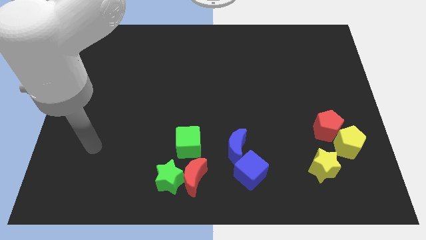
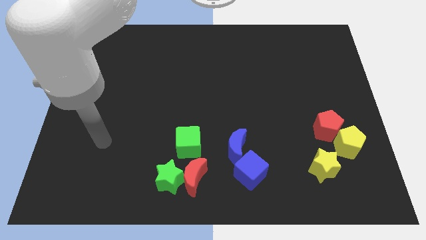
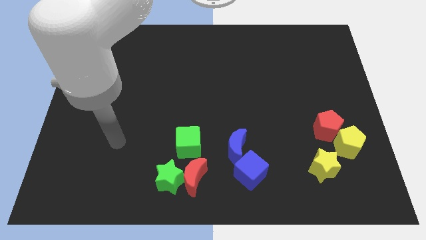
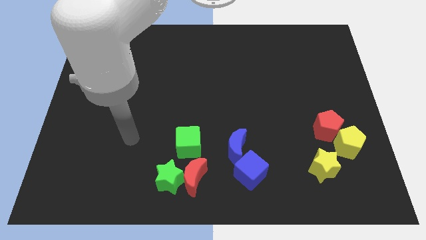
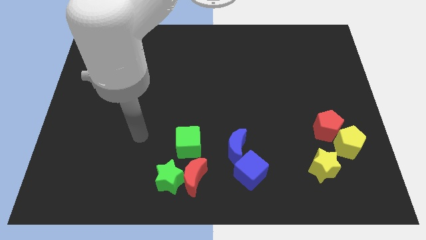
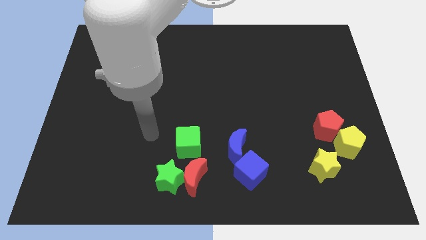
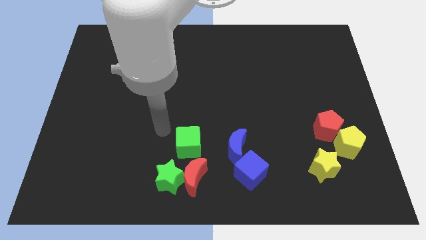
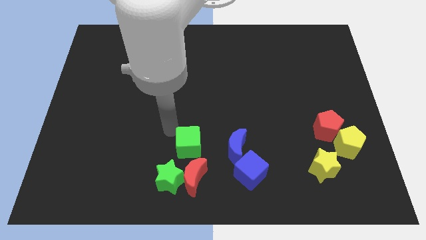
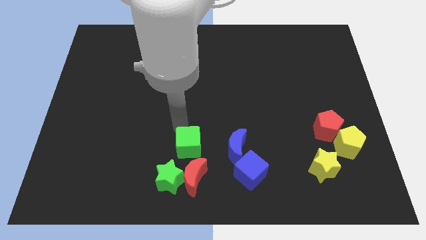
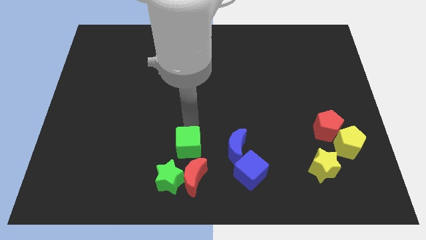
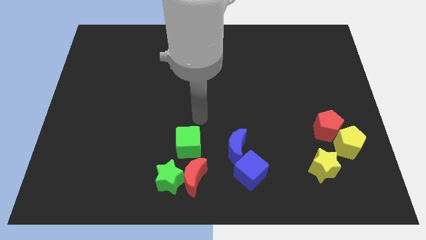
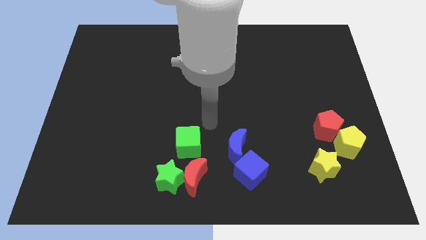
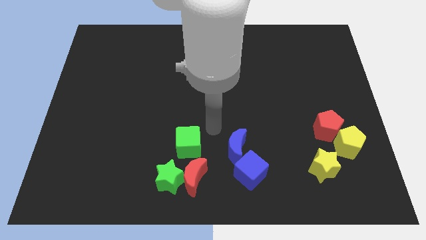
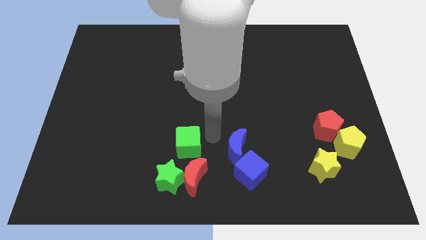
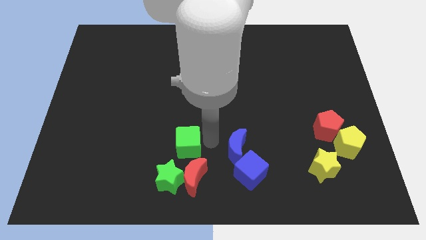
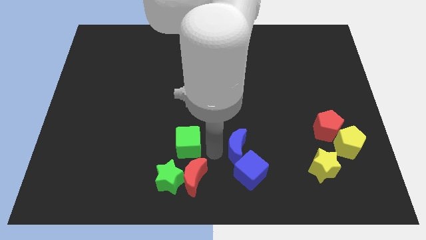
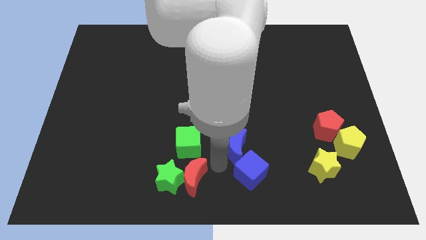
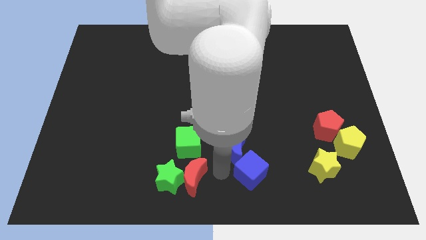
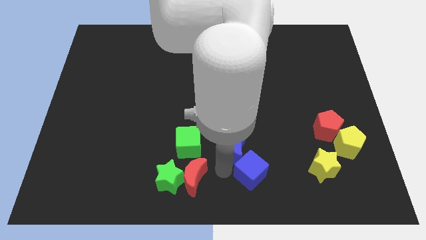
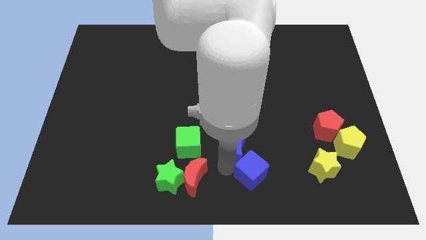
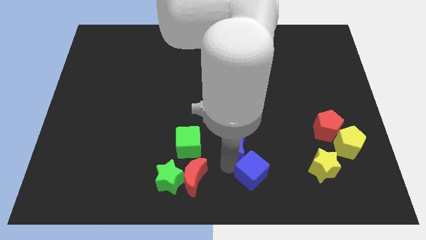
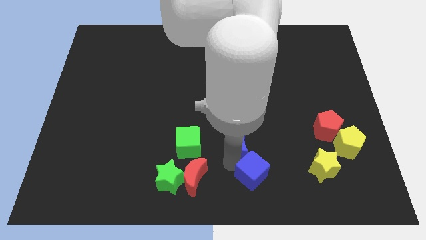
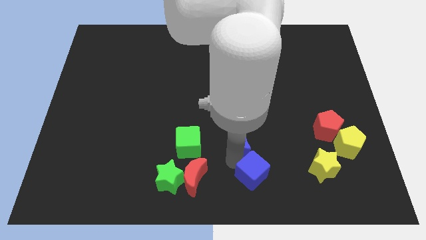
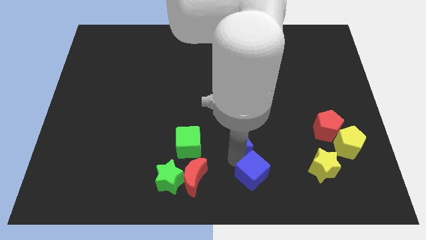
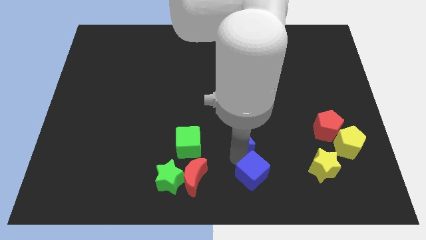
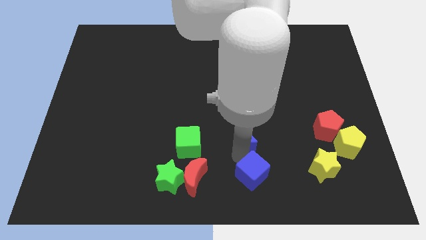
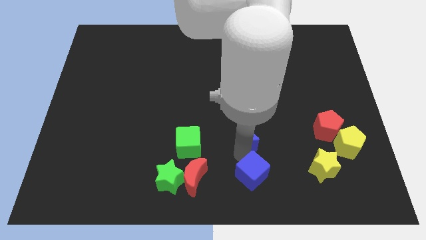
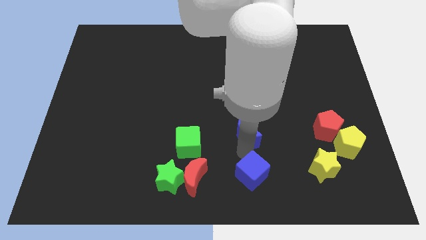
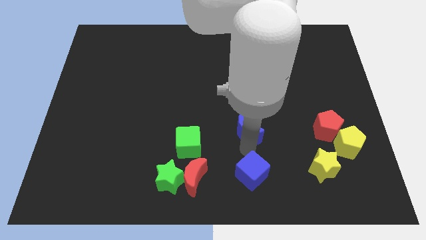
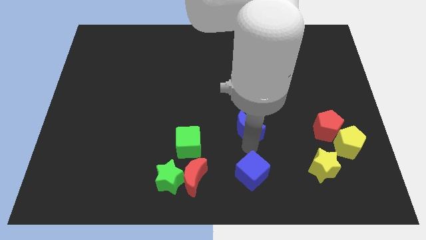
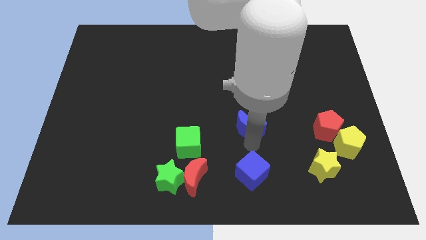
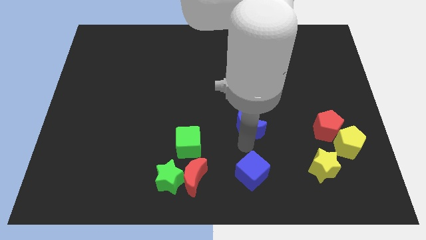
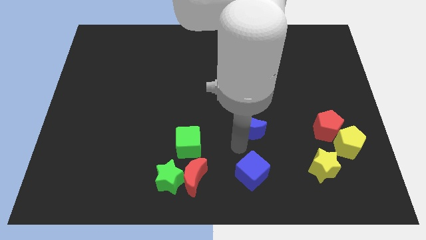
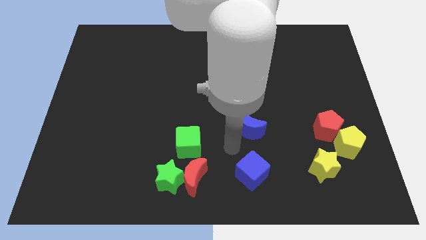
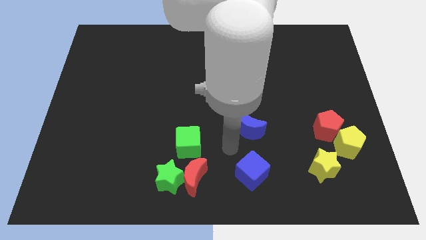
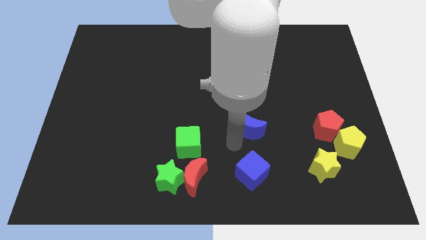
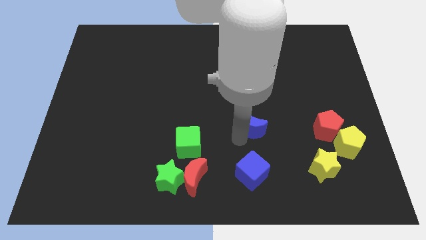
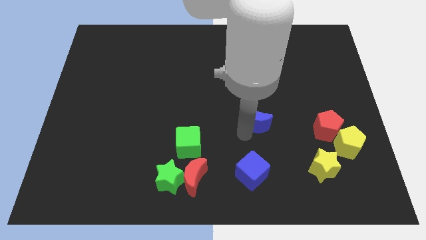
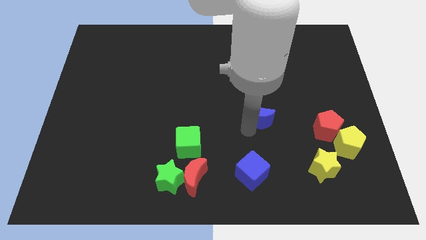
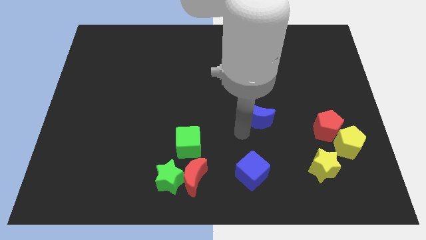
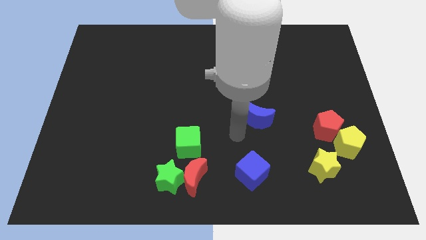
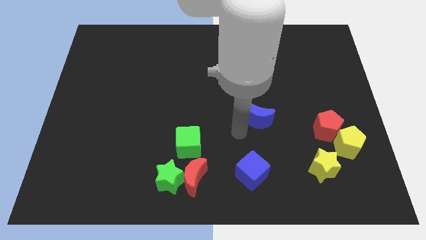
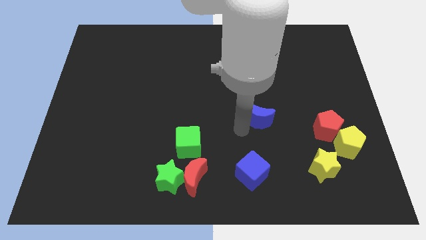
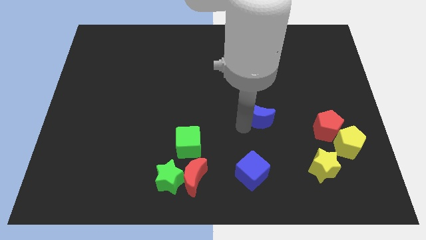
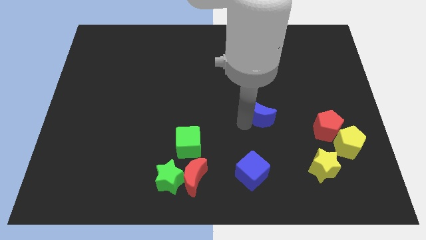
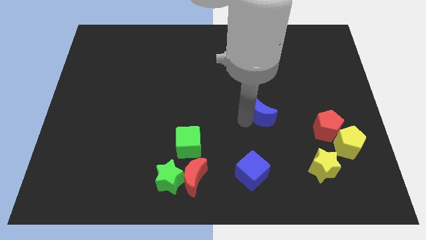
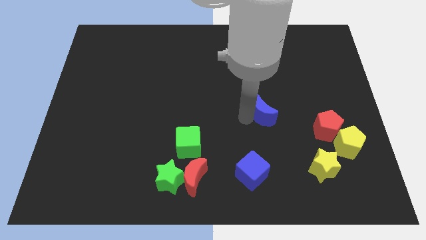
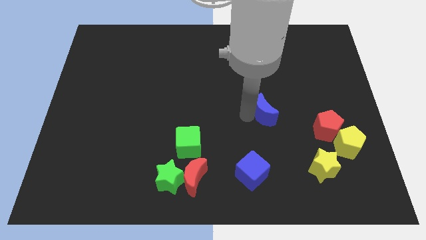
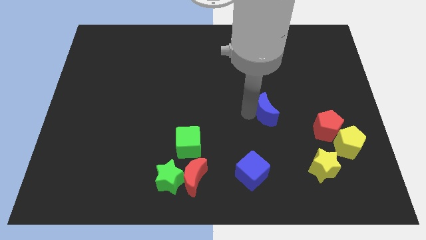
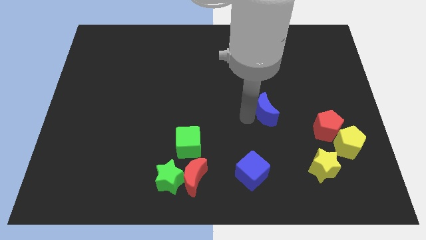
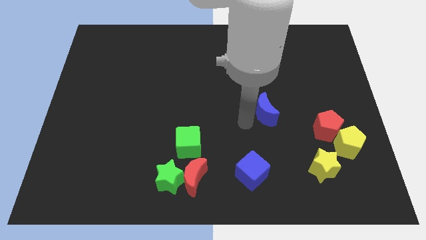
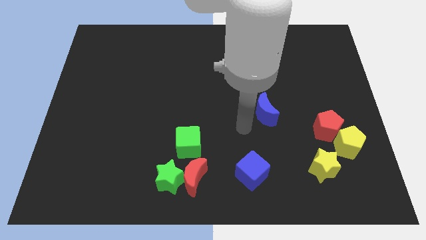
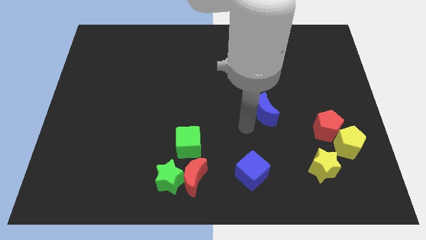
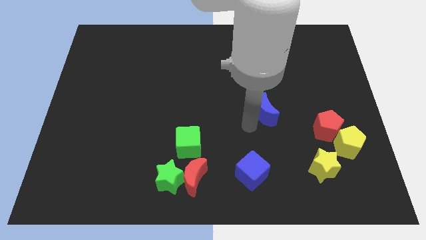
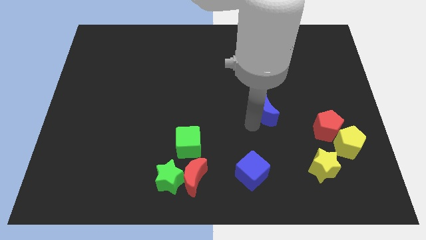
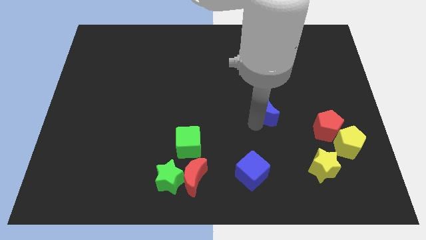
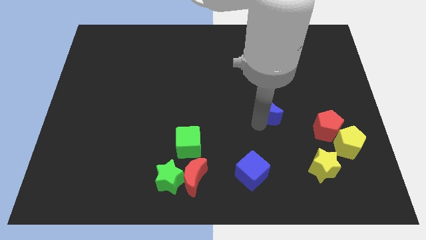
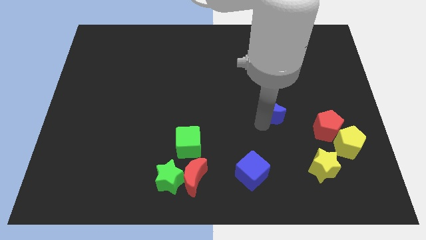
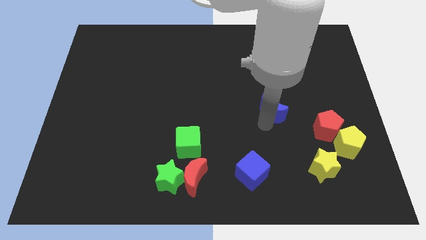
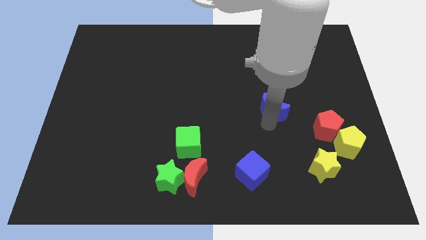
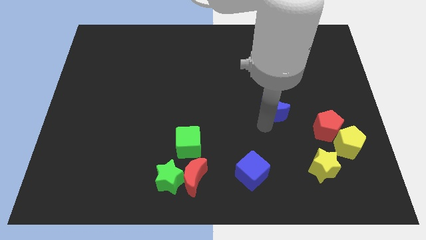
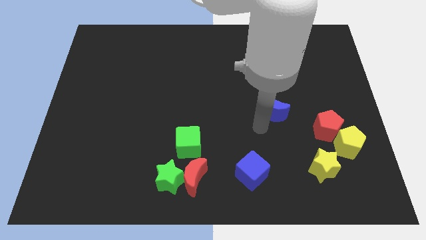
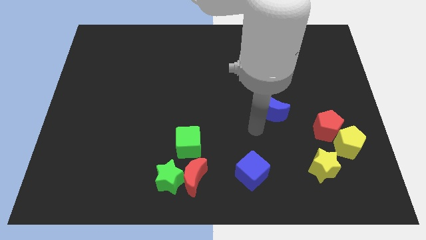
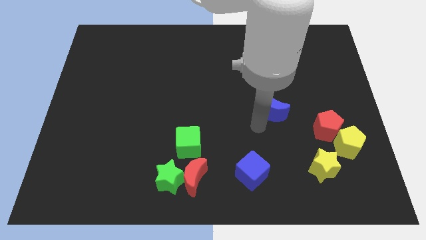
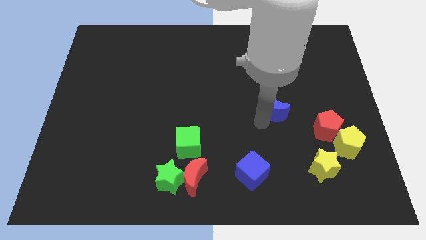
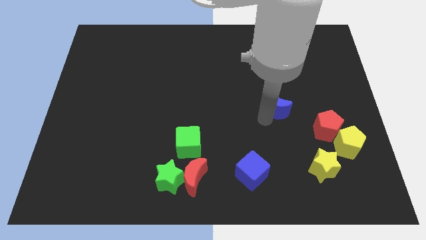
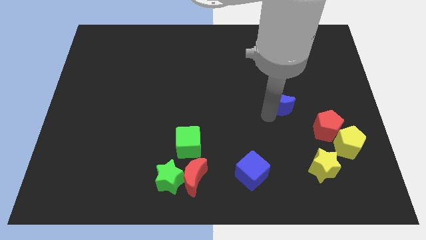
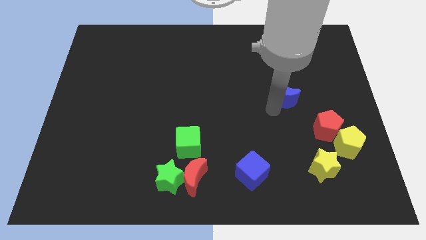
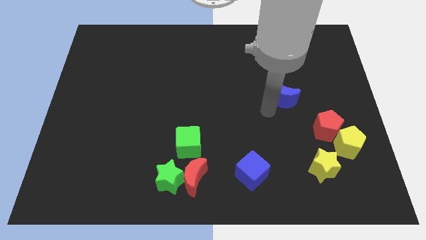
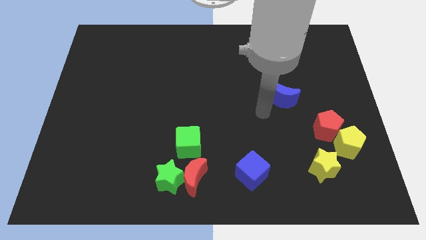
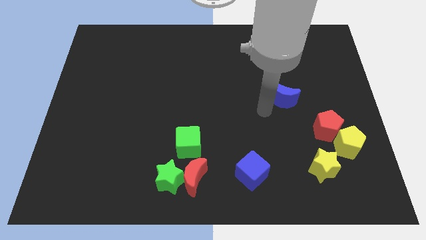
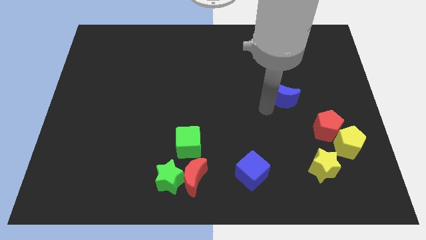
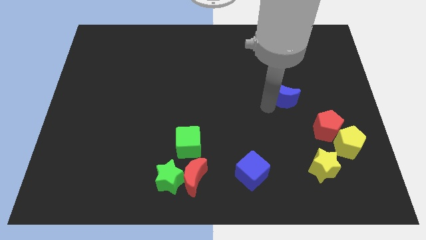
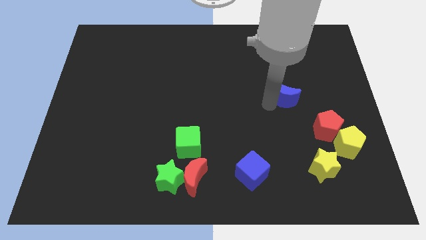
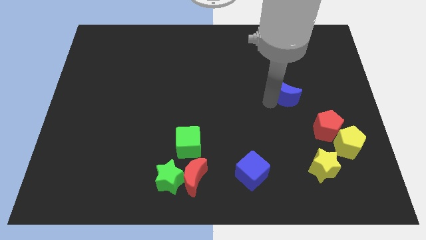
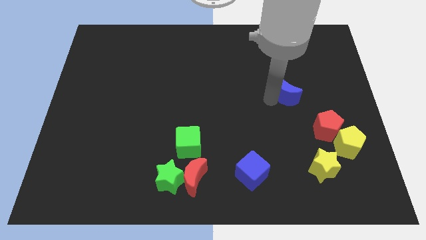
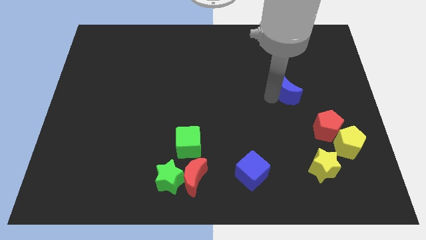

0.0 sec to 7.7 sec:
push the blue moon up and then right

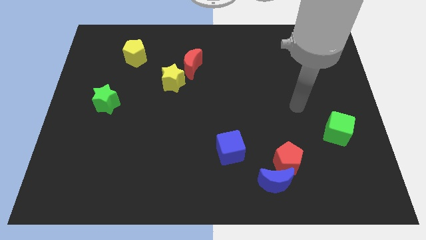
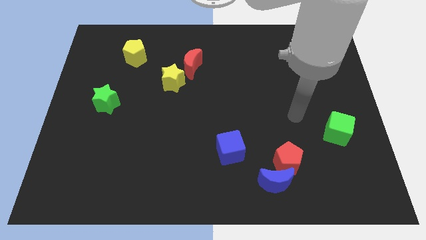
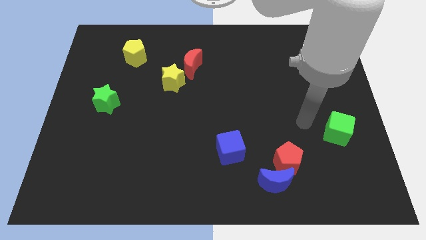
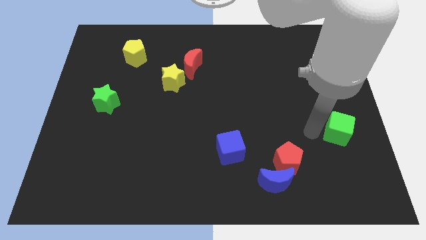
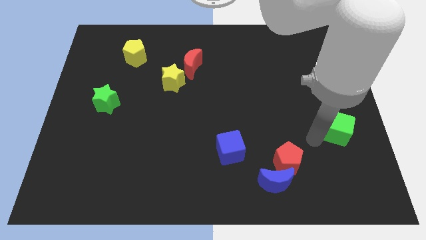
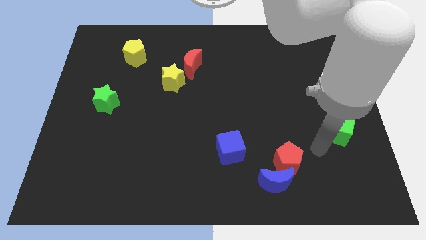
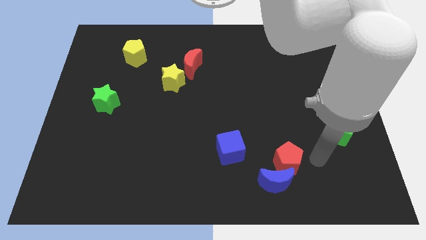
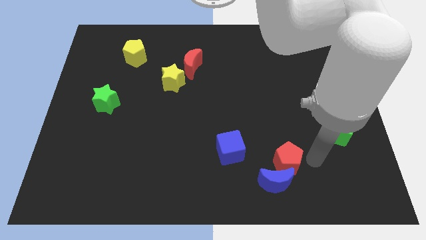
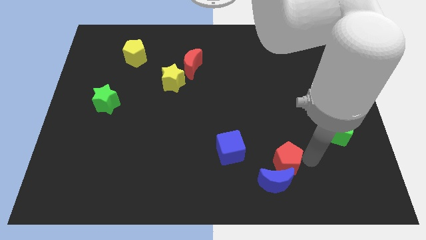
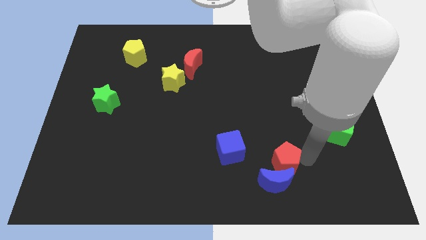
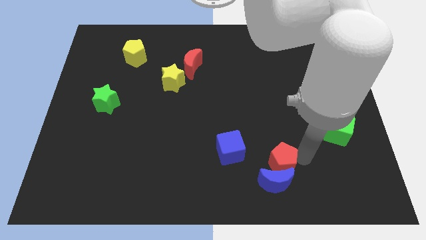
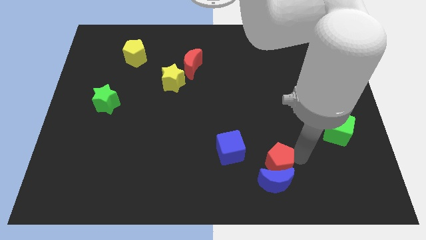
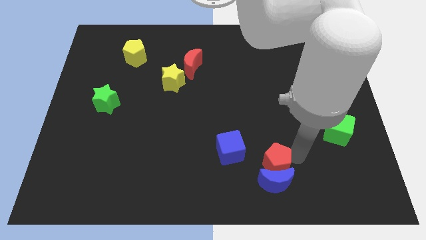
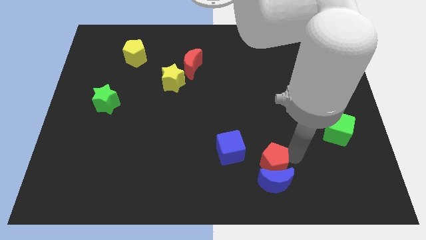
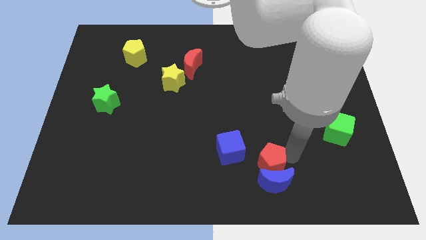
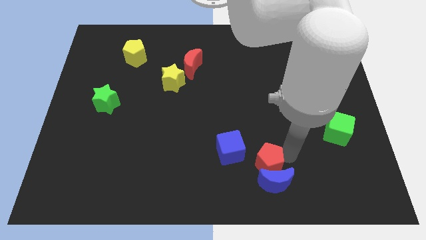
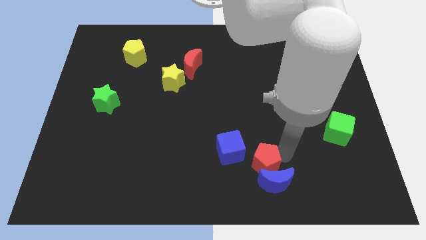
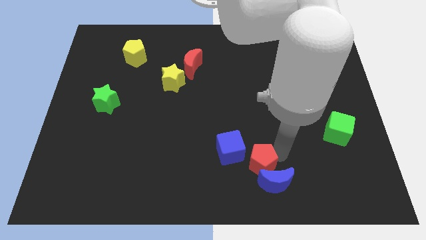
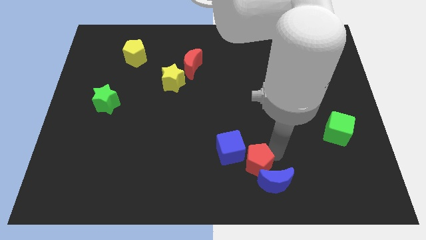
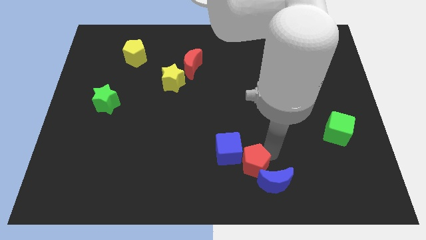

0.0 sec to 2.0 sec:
push the red pentagon left a little bit
